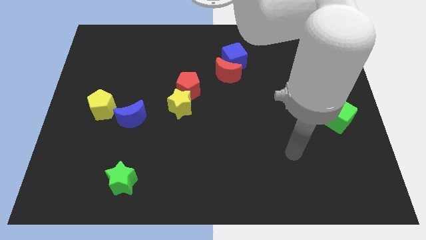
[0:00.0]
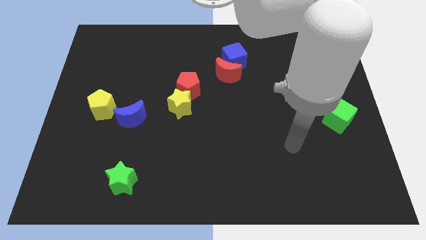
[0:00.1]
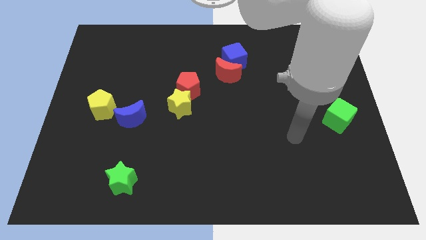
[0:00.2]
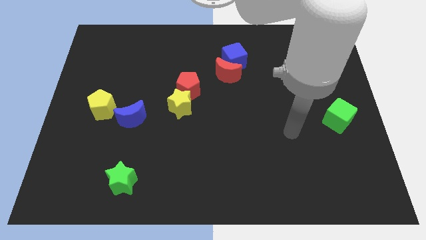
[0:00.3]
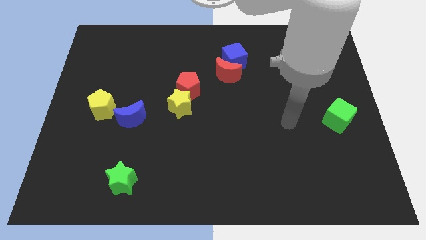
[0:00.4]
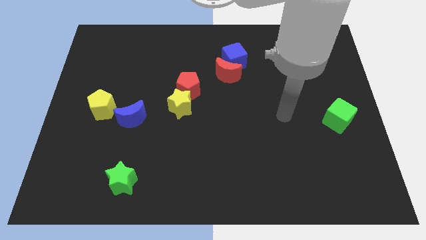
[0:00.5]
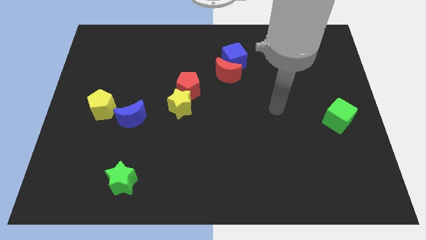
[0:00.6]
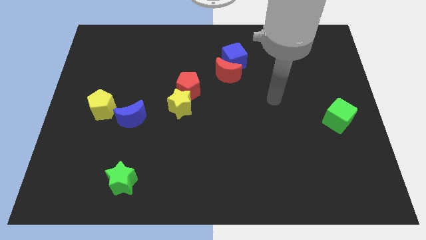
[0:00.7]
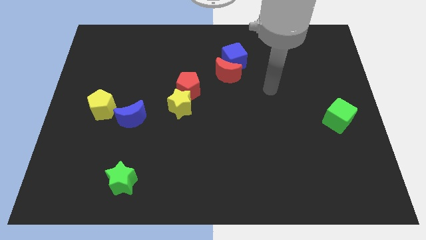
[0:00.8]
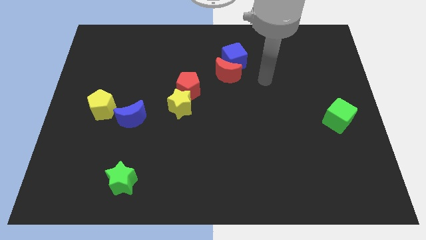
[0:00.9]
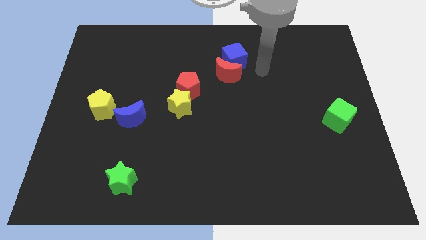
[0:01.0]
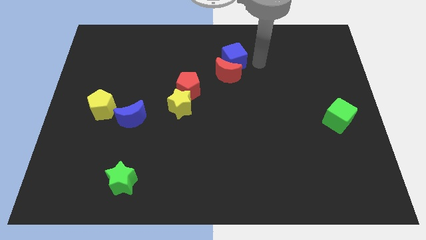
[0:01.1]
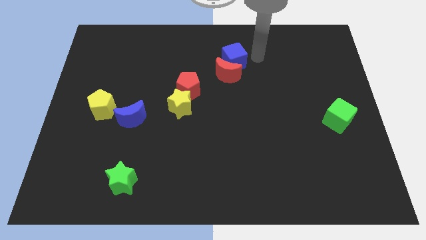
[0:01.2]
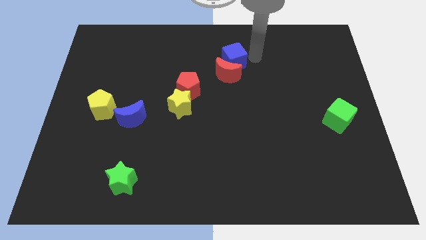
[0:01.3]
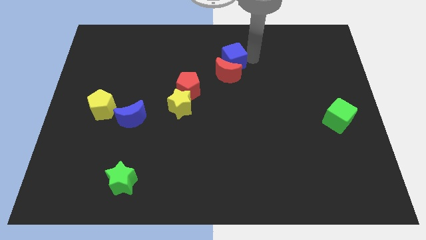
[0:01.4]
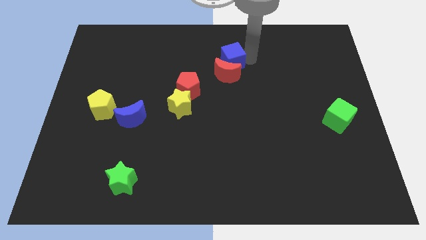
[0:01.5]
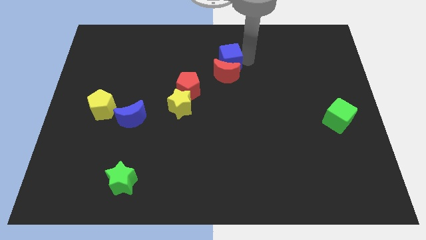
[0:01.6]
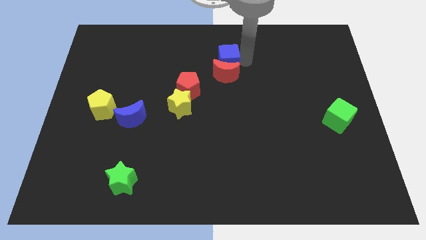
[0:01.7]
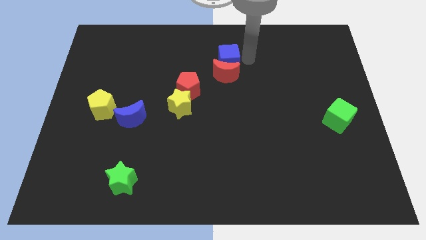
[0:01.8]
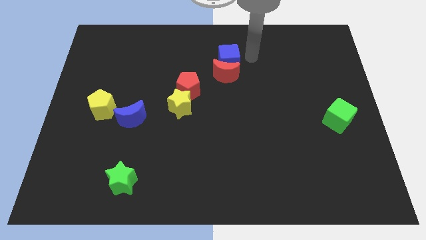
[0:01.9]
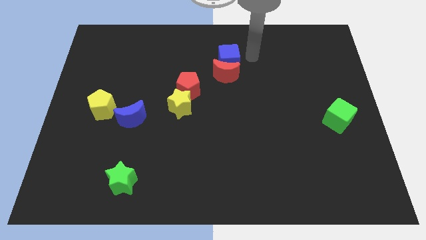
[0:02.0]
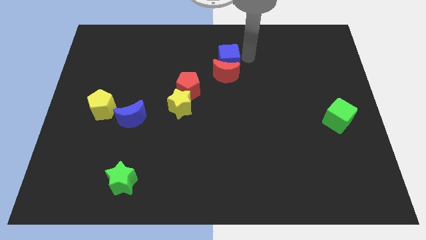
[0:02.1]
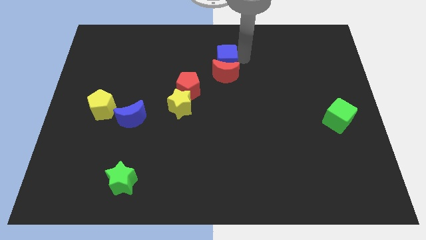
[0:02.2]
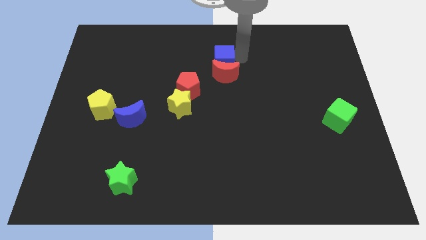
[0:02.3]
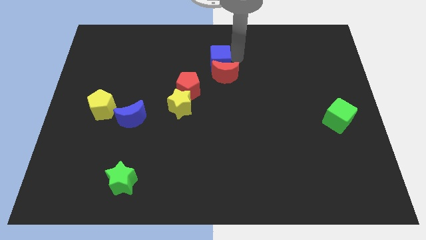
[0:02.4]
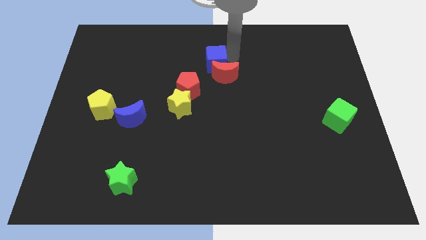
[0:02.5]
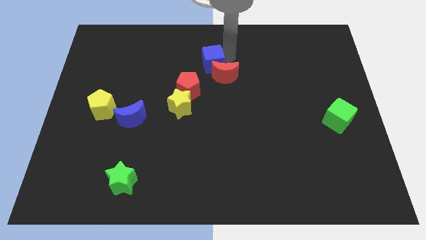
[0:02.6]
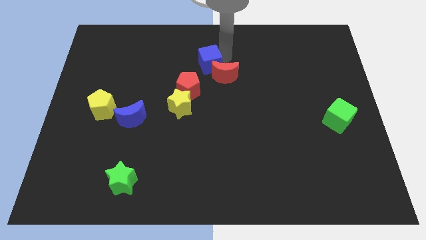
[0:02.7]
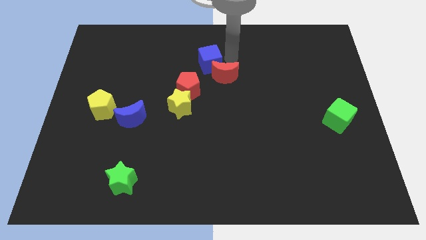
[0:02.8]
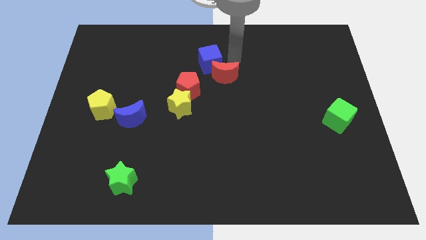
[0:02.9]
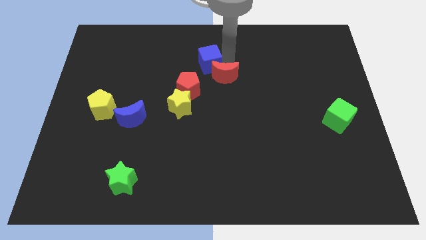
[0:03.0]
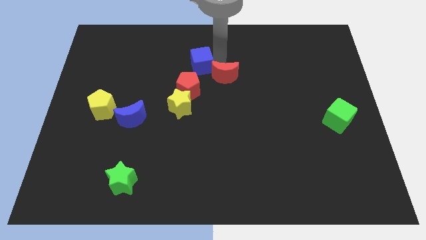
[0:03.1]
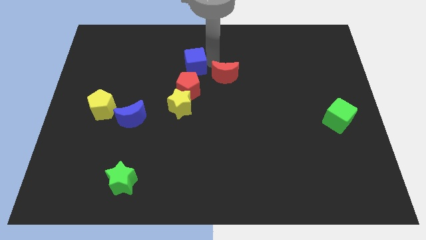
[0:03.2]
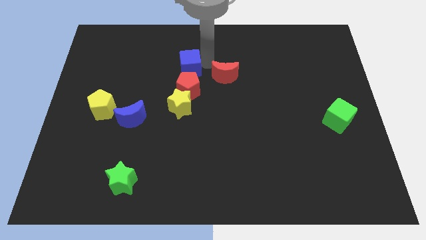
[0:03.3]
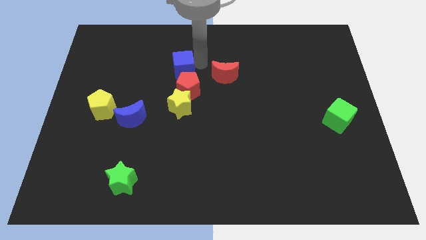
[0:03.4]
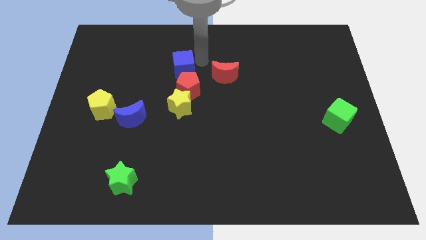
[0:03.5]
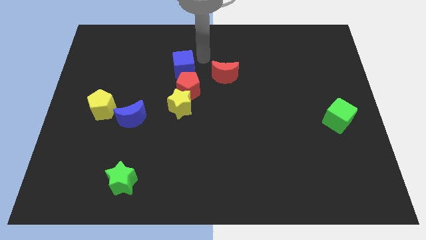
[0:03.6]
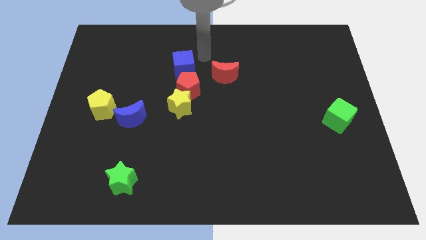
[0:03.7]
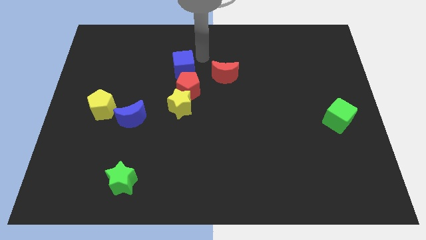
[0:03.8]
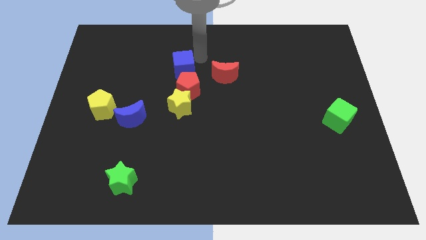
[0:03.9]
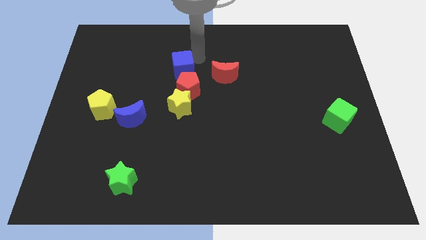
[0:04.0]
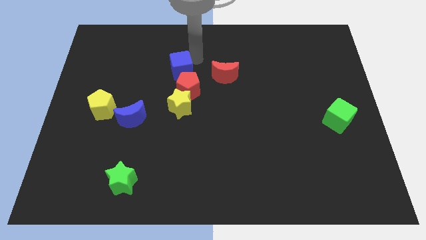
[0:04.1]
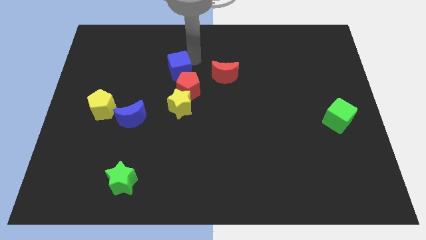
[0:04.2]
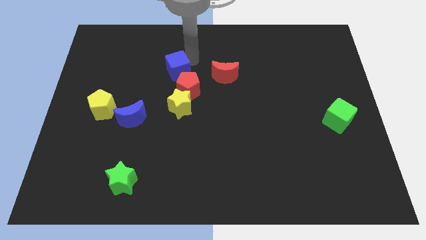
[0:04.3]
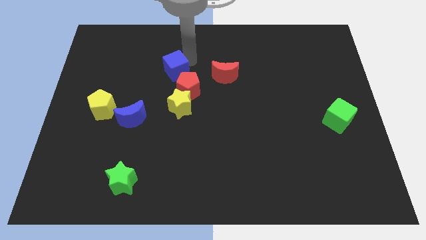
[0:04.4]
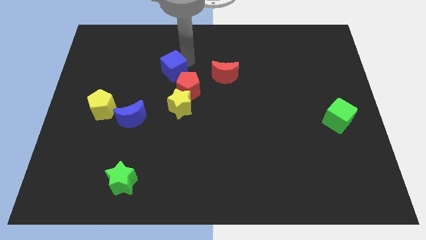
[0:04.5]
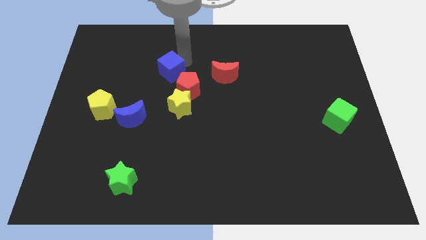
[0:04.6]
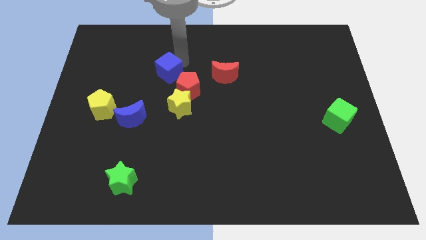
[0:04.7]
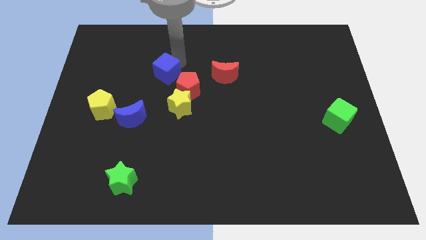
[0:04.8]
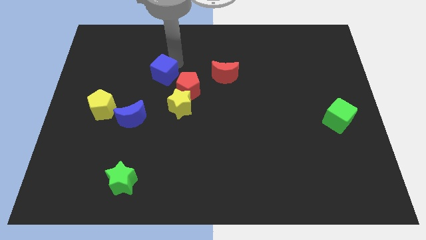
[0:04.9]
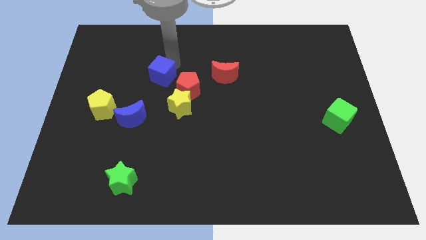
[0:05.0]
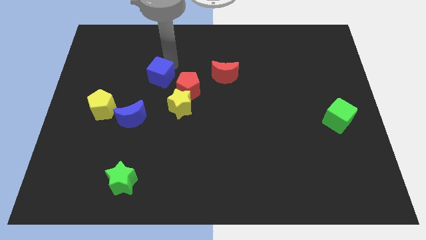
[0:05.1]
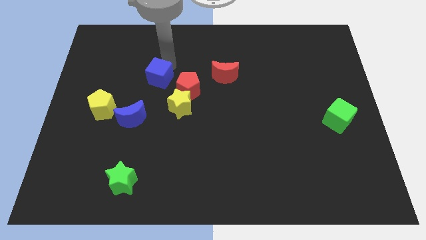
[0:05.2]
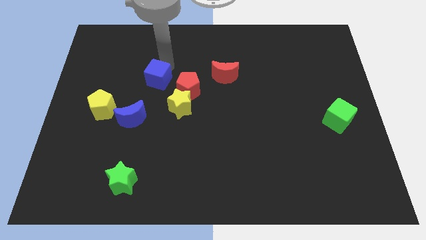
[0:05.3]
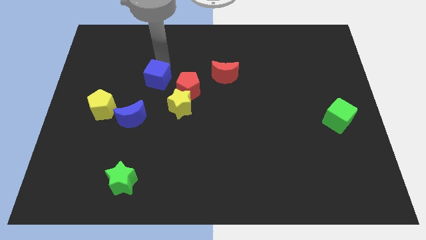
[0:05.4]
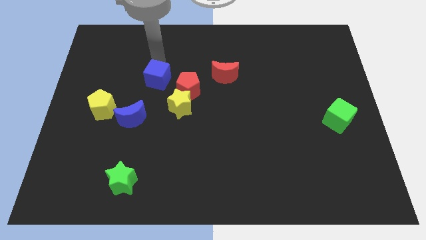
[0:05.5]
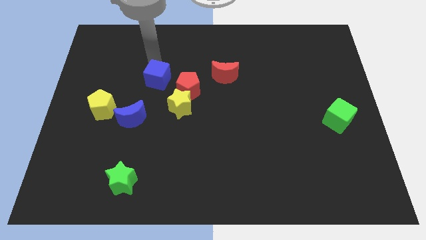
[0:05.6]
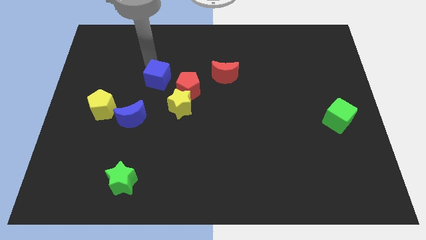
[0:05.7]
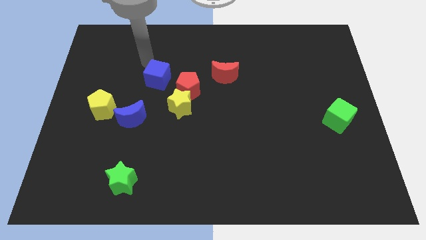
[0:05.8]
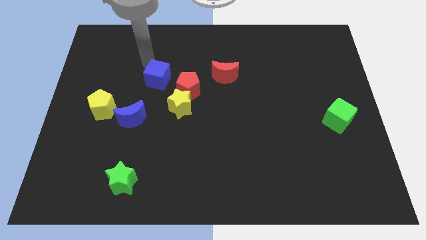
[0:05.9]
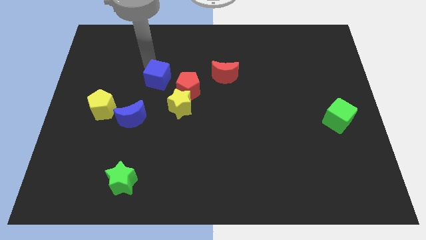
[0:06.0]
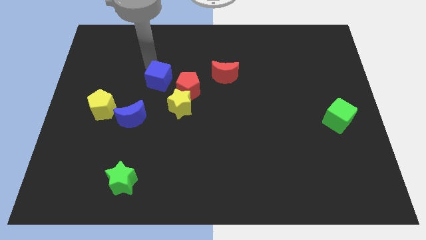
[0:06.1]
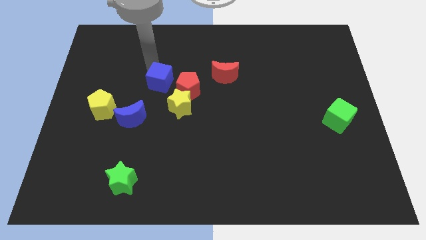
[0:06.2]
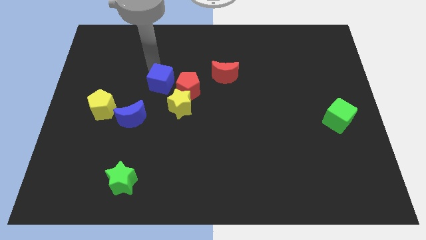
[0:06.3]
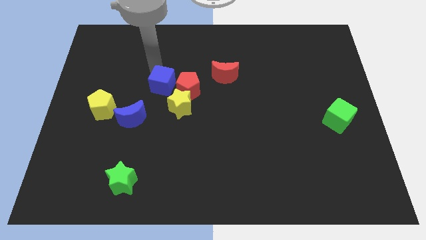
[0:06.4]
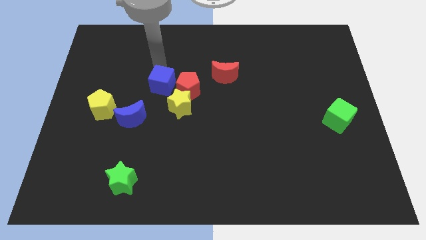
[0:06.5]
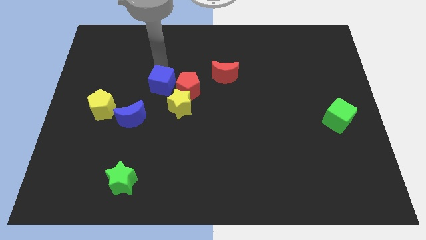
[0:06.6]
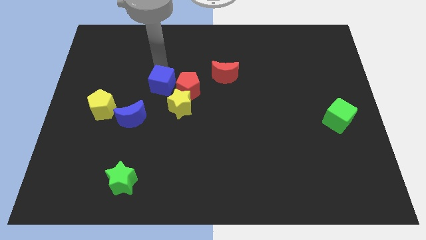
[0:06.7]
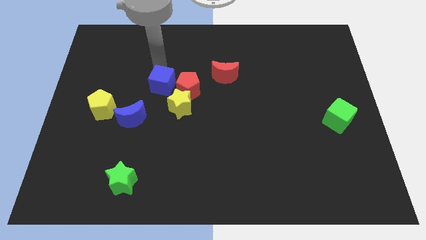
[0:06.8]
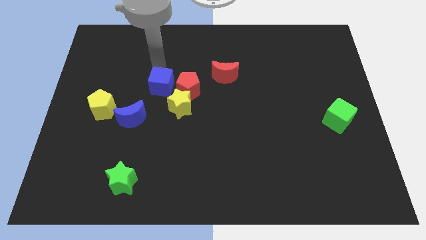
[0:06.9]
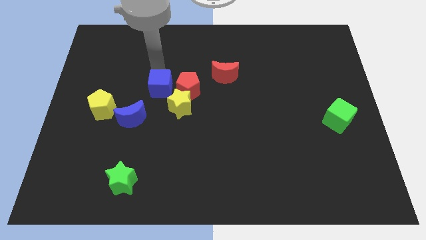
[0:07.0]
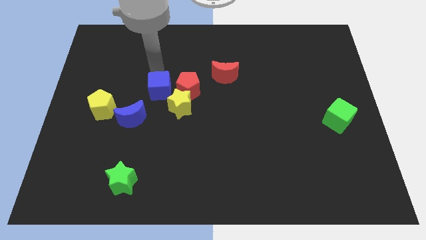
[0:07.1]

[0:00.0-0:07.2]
move the blue cube to the bottom left side of the red pentagon
